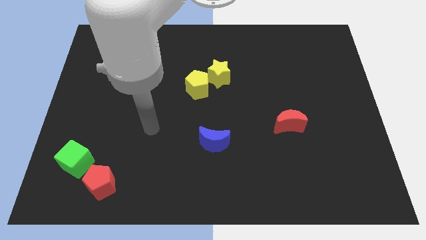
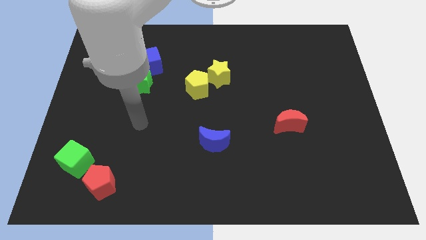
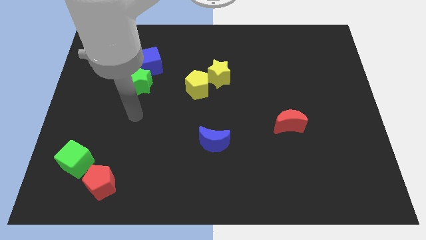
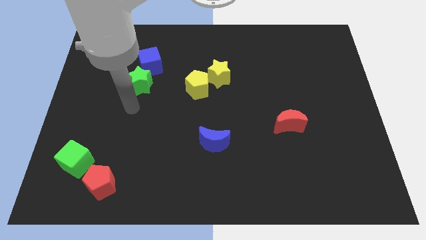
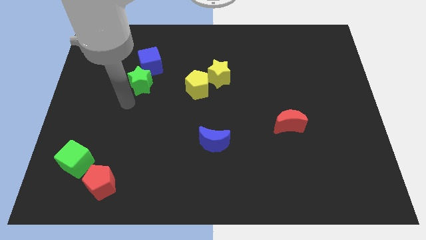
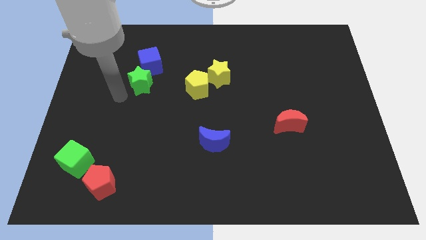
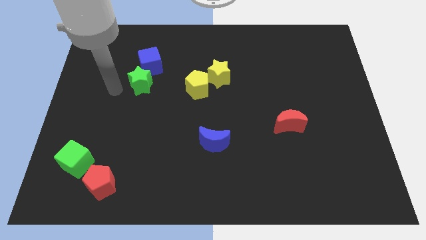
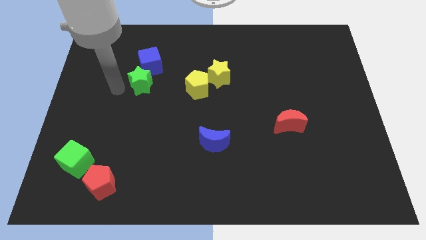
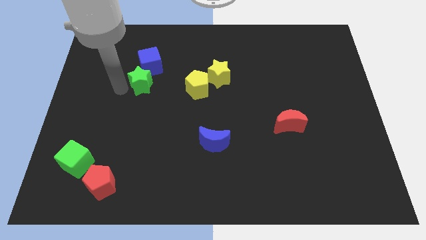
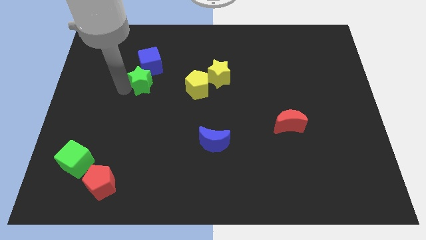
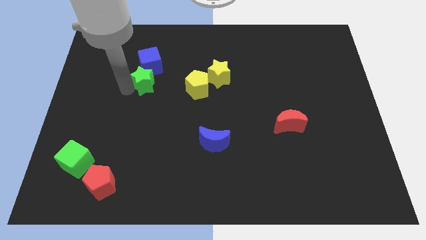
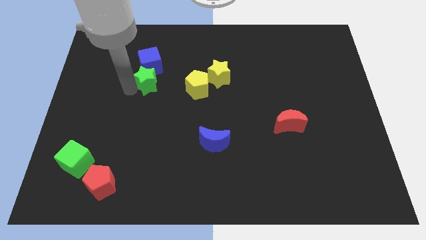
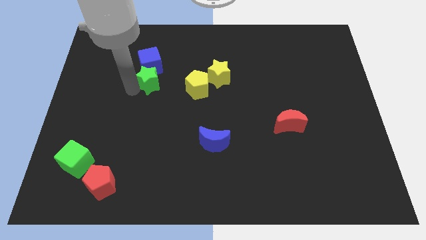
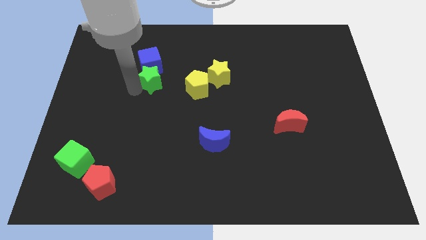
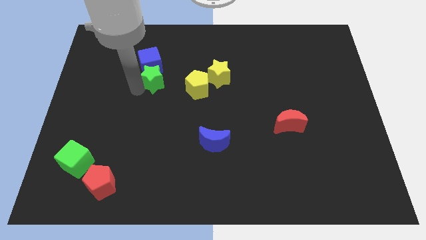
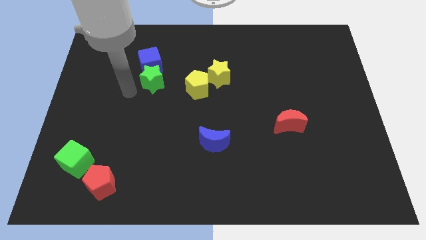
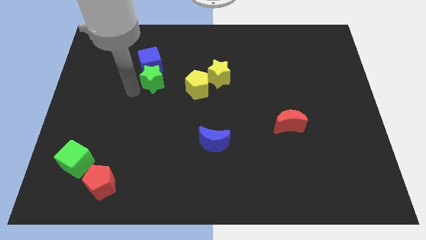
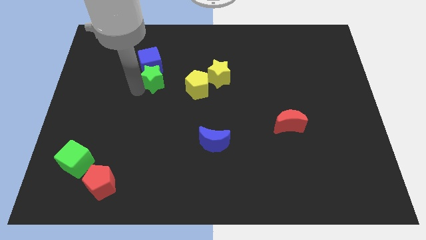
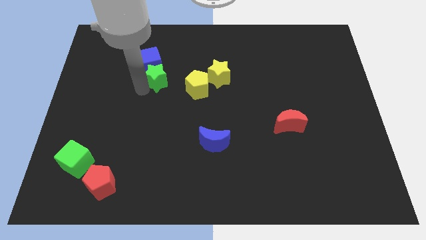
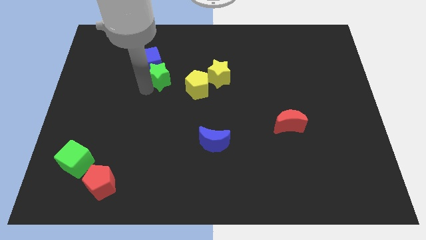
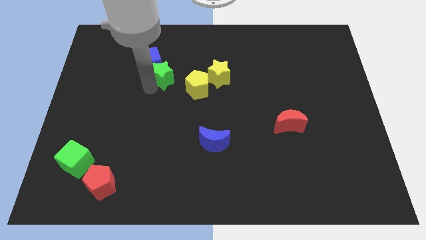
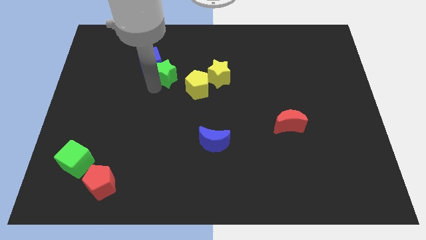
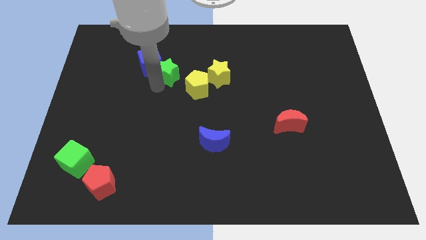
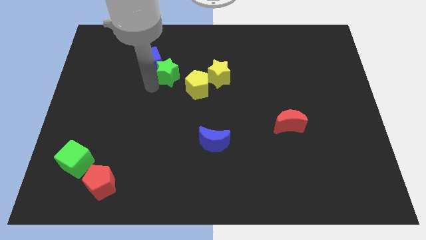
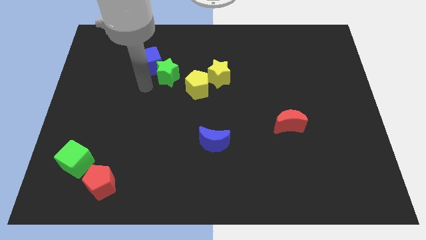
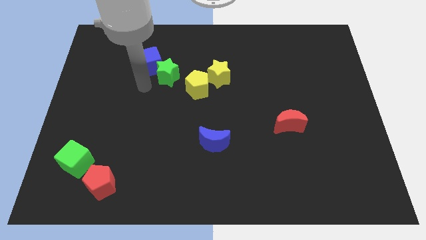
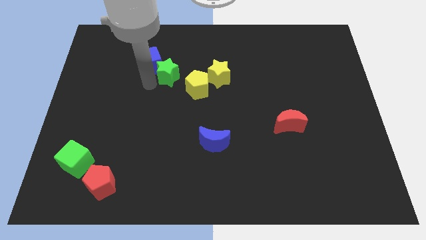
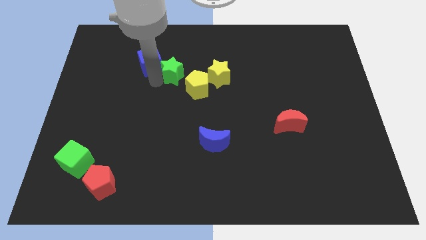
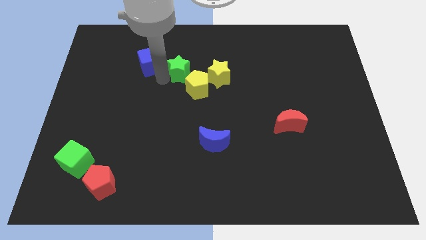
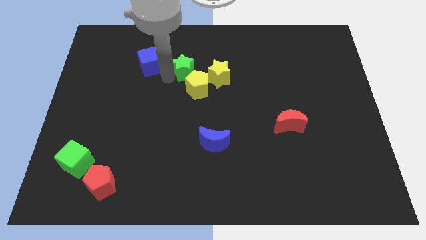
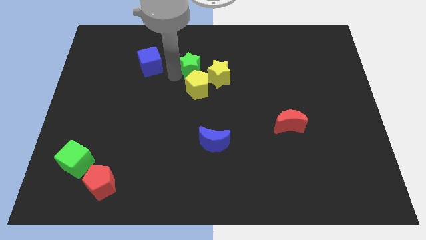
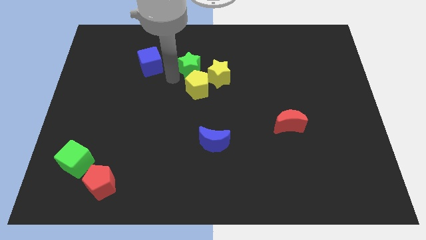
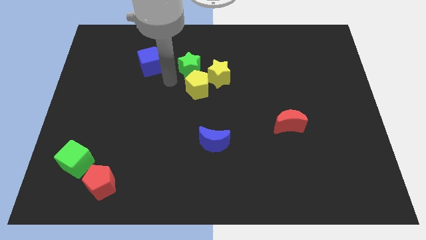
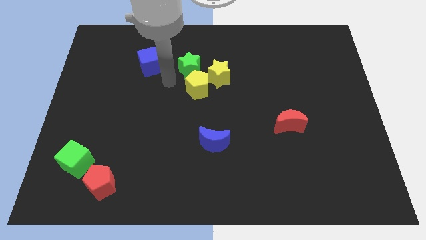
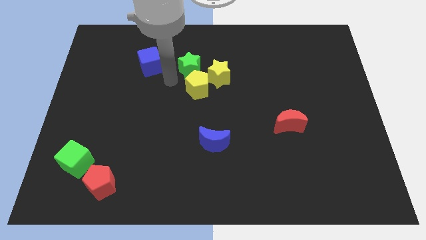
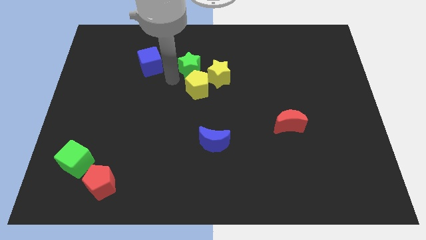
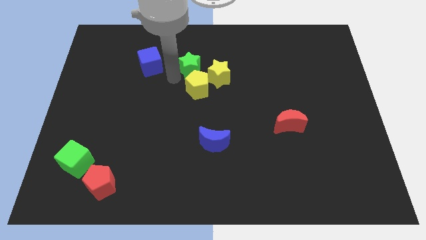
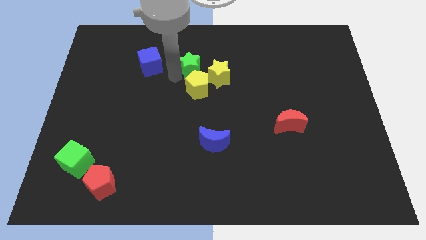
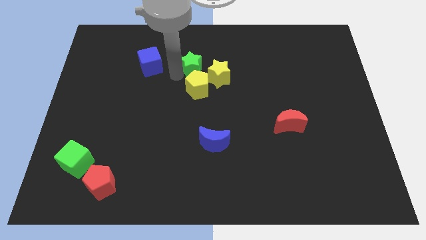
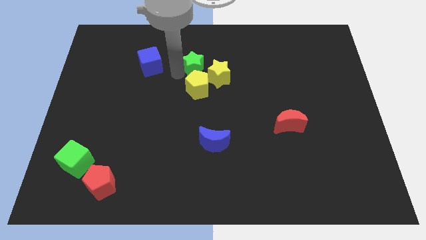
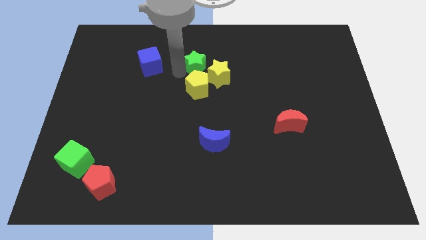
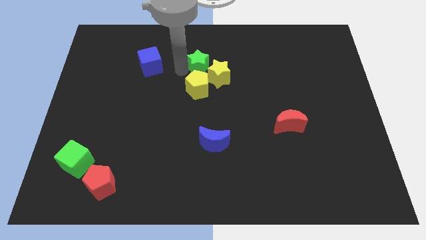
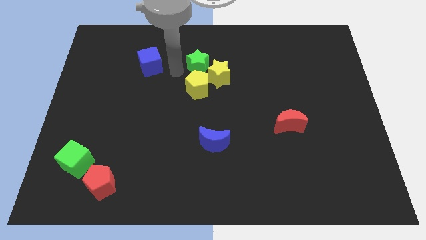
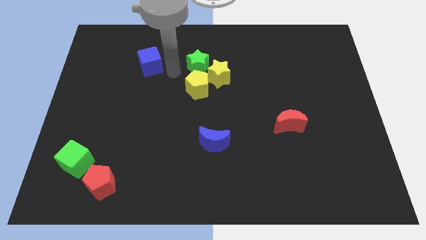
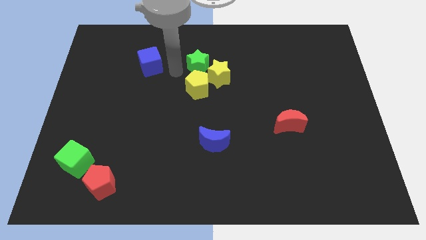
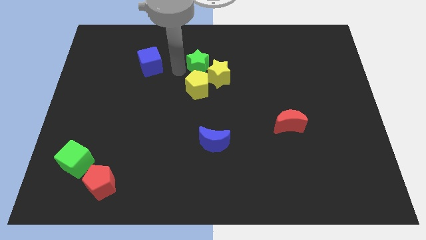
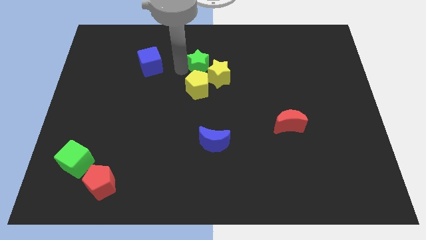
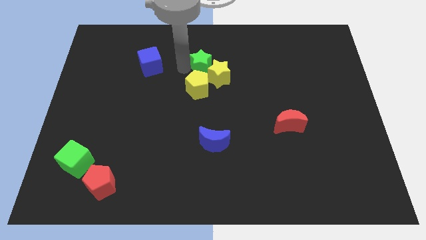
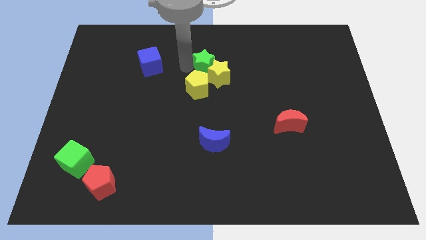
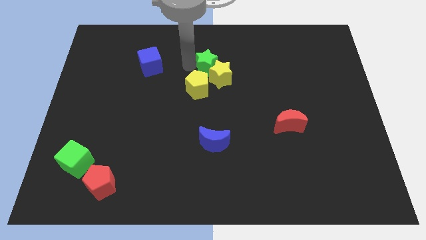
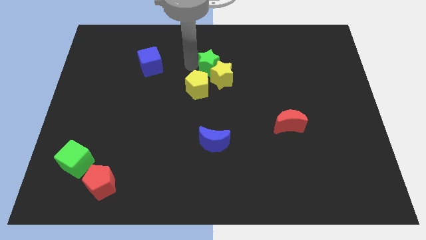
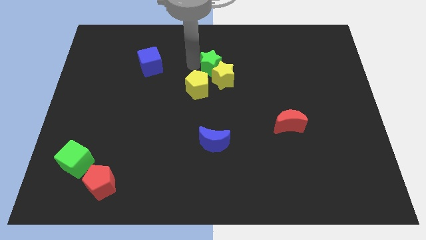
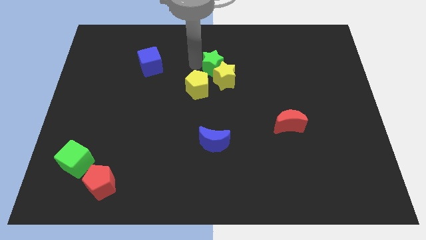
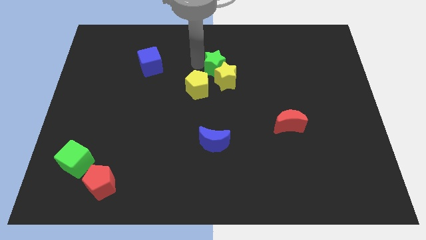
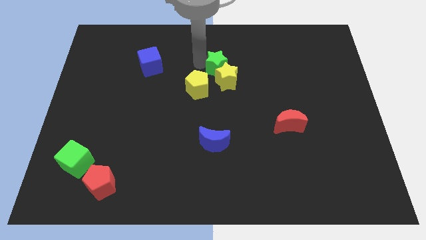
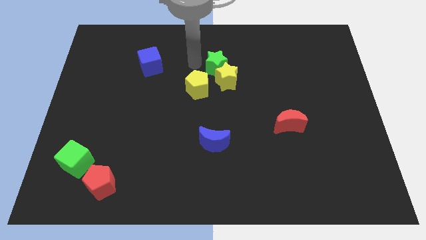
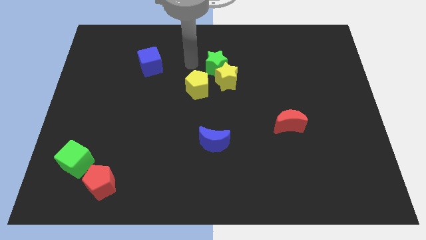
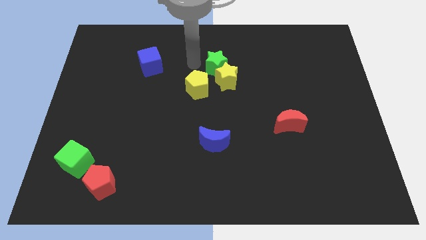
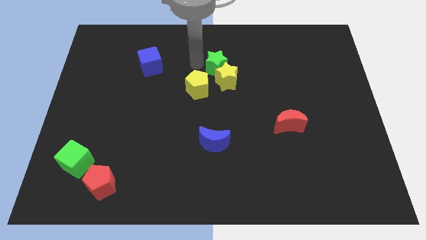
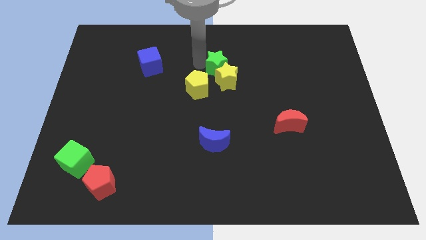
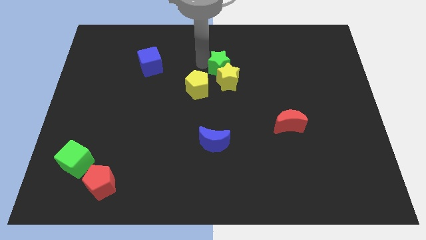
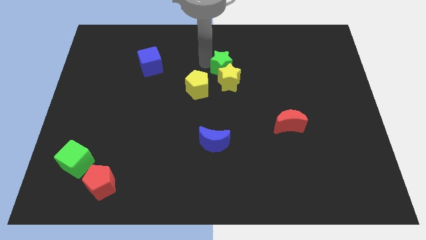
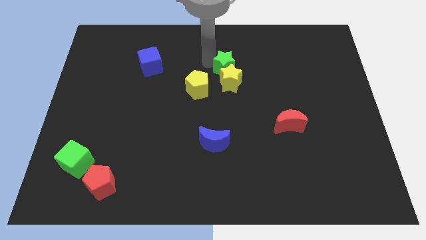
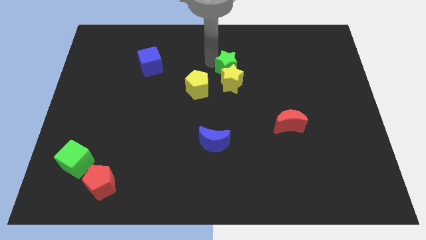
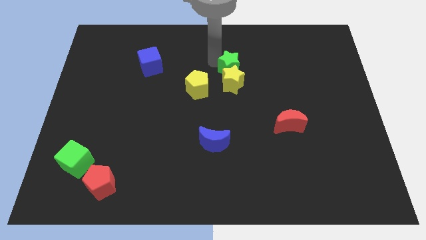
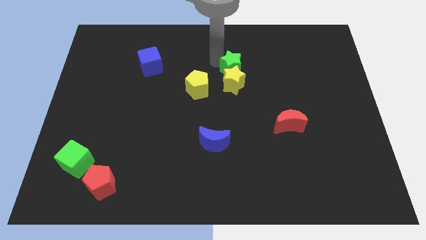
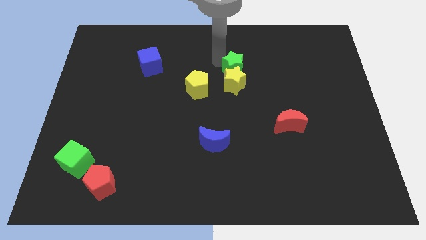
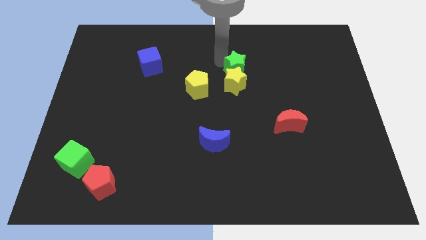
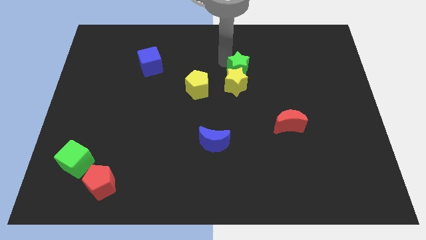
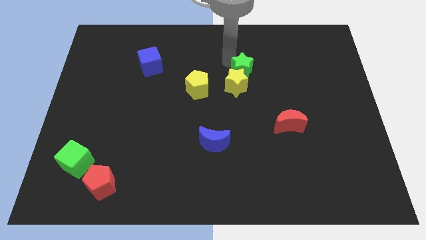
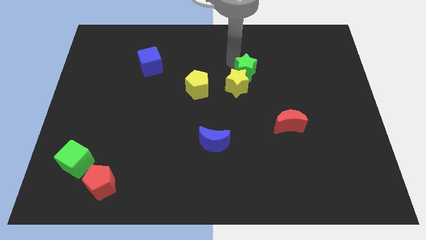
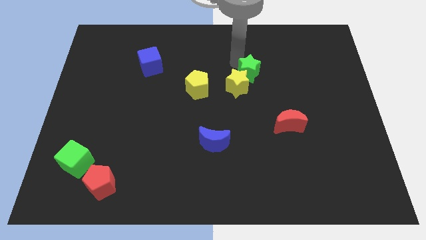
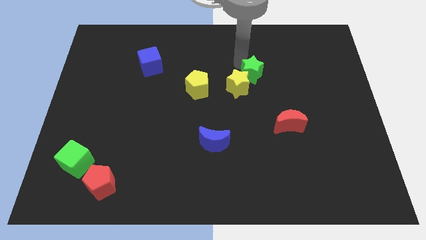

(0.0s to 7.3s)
push the green star to the right side of the yellow star

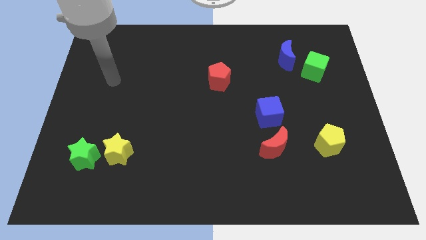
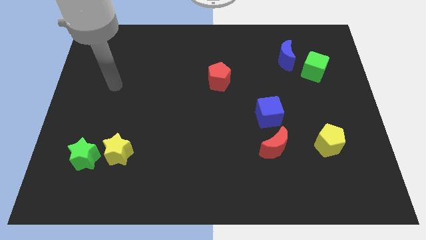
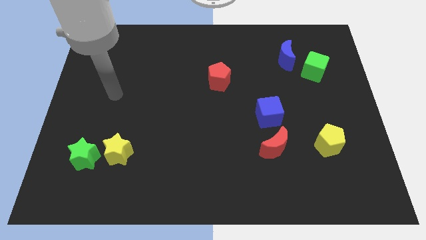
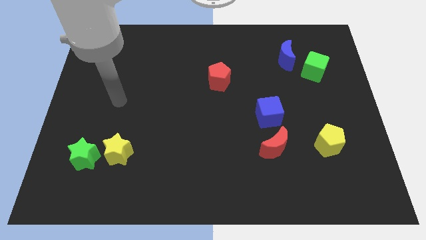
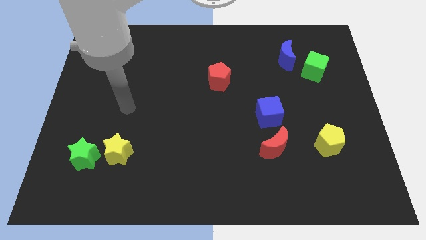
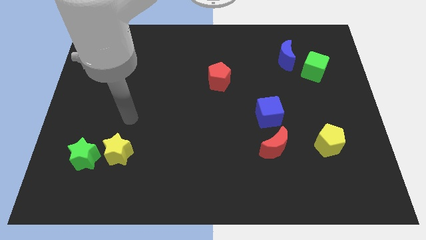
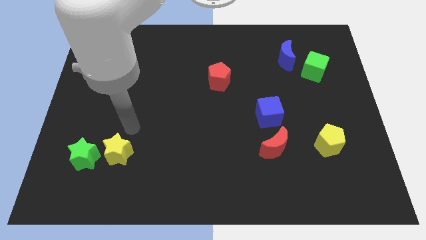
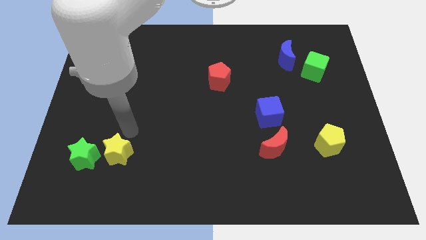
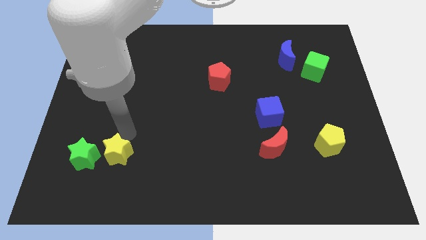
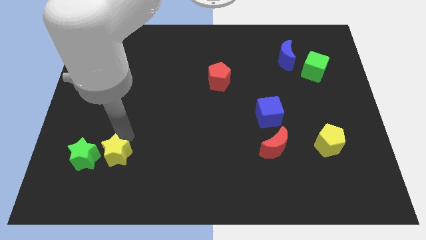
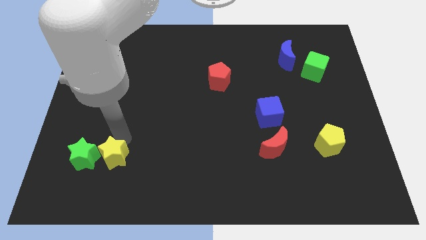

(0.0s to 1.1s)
move the yellow star to the bottom right of the green star
